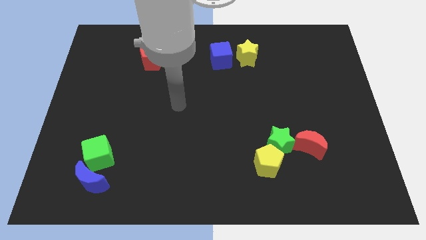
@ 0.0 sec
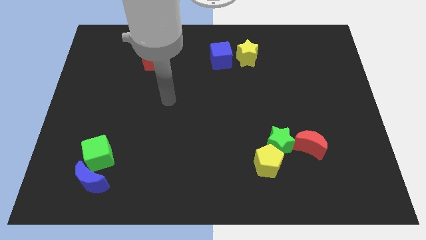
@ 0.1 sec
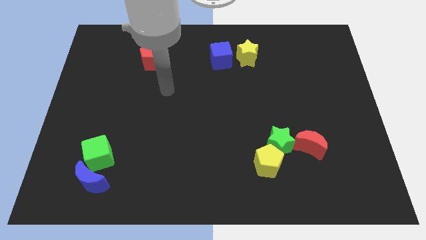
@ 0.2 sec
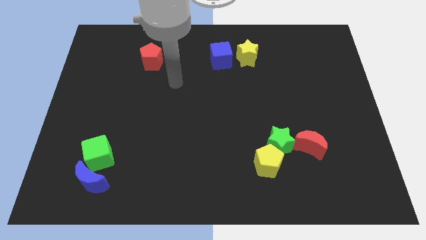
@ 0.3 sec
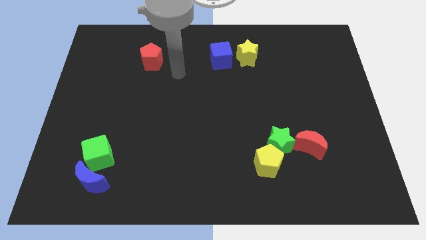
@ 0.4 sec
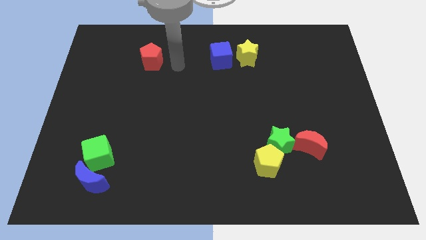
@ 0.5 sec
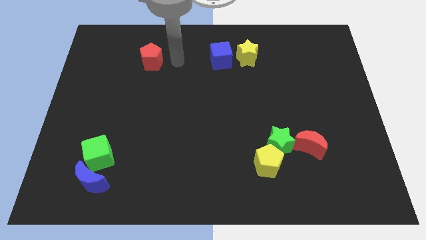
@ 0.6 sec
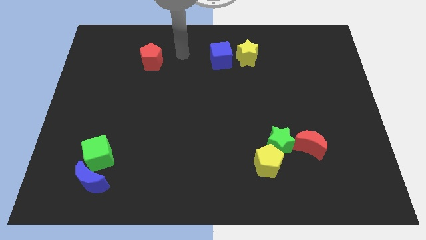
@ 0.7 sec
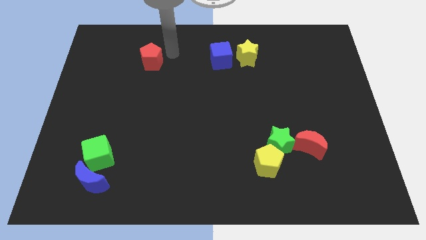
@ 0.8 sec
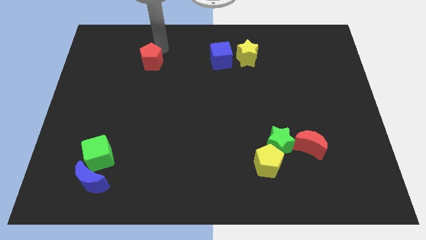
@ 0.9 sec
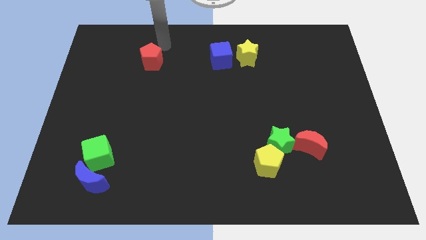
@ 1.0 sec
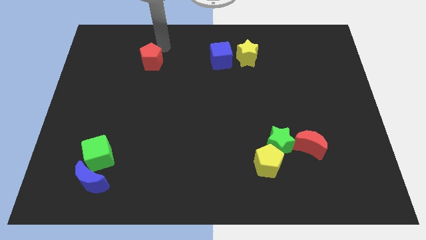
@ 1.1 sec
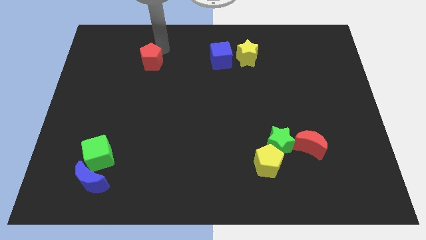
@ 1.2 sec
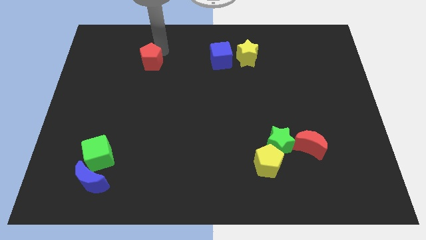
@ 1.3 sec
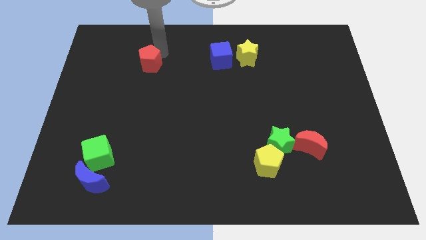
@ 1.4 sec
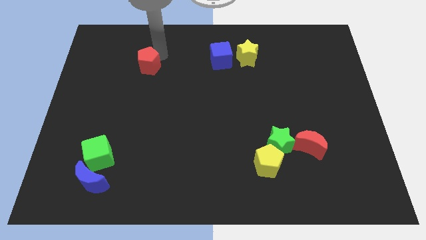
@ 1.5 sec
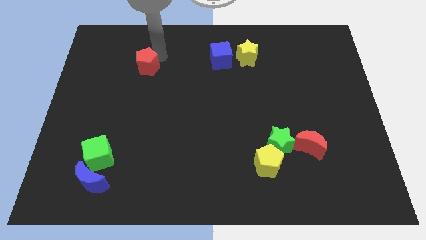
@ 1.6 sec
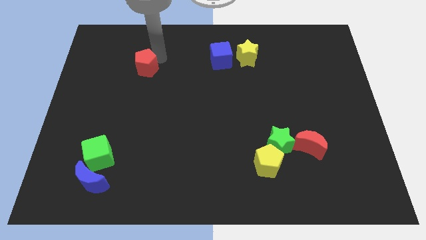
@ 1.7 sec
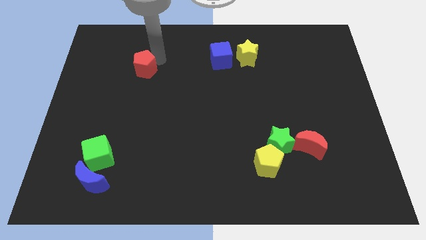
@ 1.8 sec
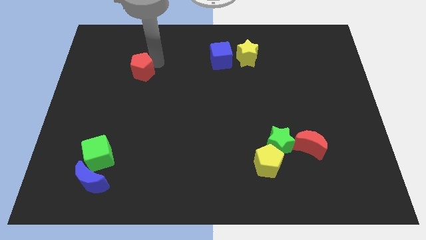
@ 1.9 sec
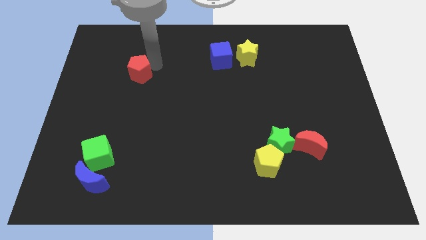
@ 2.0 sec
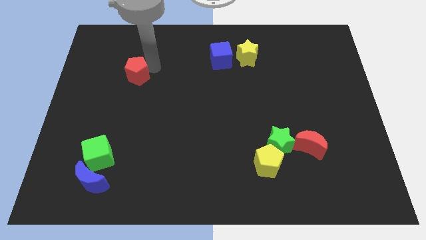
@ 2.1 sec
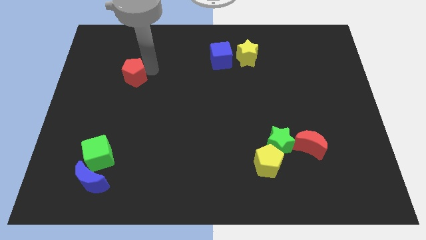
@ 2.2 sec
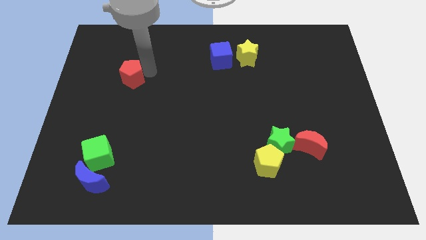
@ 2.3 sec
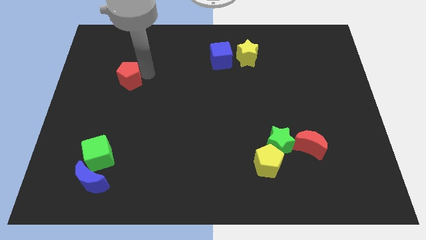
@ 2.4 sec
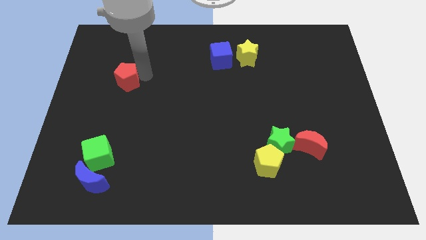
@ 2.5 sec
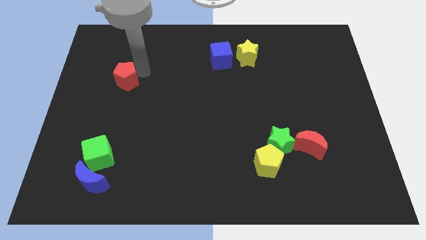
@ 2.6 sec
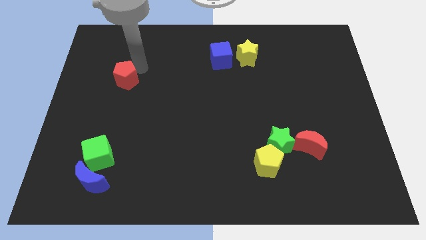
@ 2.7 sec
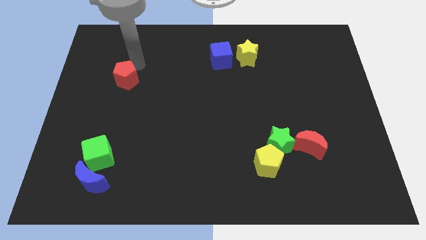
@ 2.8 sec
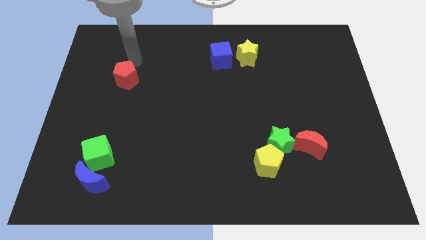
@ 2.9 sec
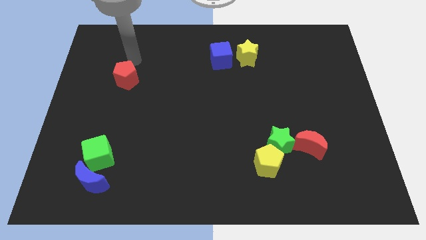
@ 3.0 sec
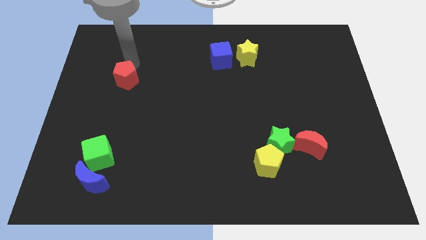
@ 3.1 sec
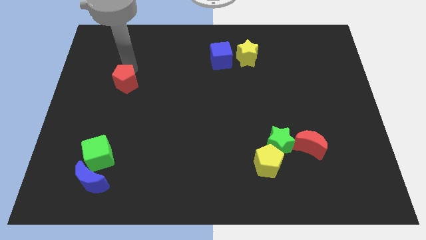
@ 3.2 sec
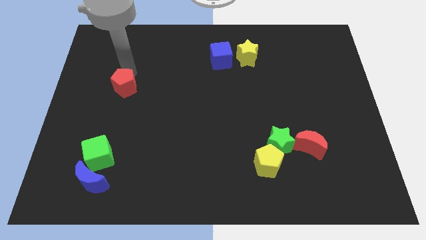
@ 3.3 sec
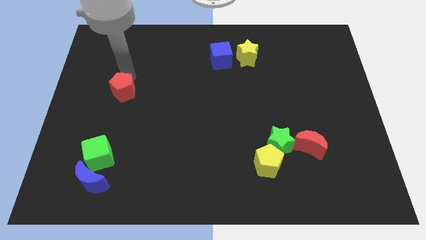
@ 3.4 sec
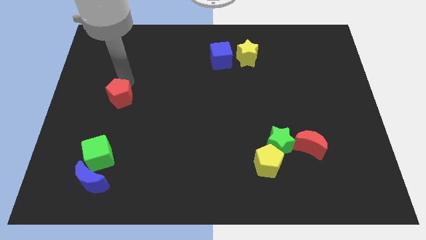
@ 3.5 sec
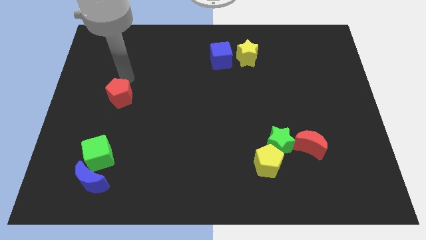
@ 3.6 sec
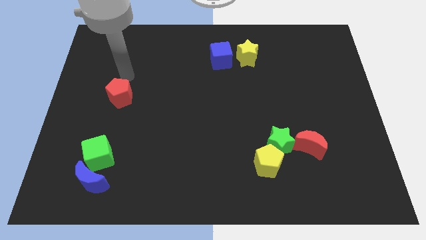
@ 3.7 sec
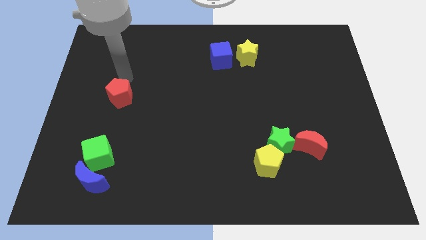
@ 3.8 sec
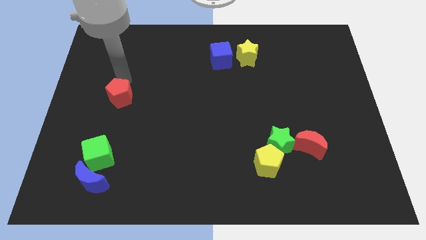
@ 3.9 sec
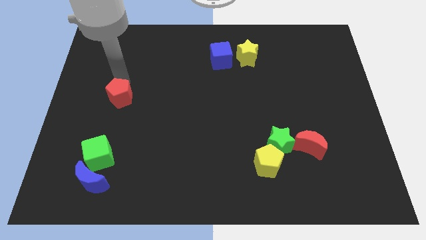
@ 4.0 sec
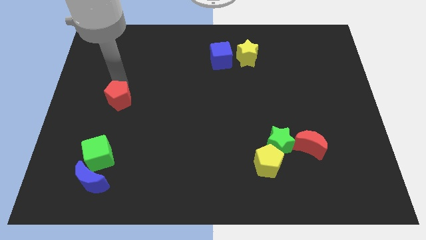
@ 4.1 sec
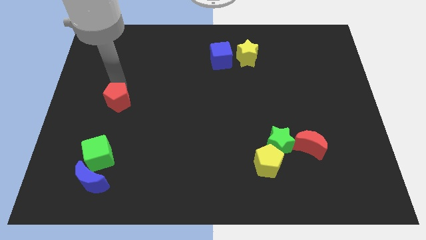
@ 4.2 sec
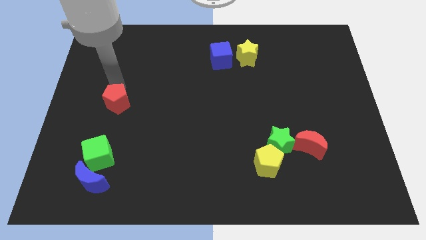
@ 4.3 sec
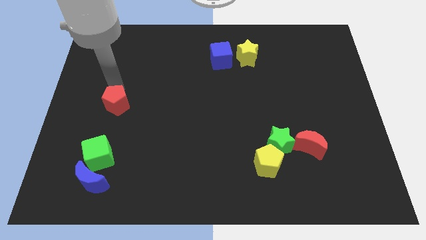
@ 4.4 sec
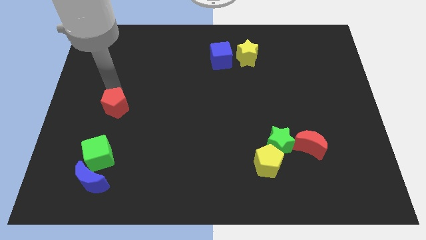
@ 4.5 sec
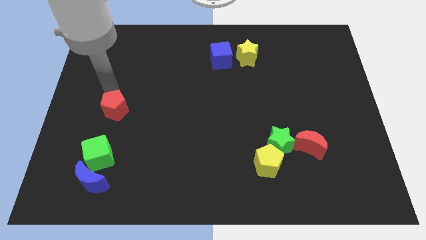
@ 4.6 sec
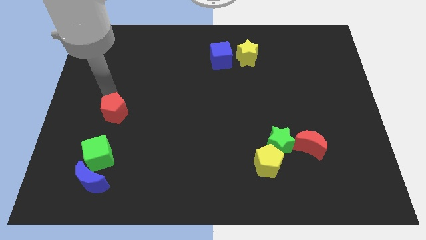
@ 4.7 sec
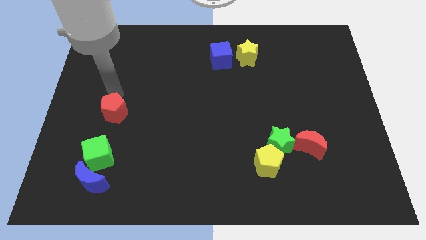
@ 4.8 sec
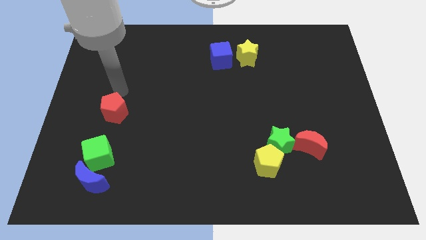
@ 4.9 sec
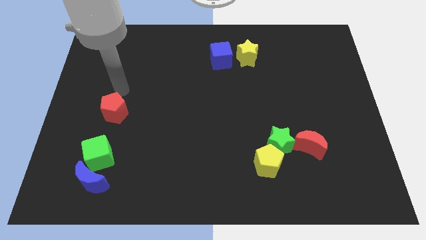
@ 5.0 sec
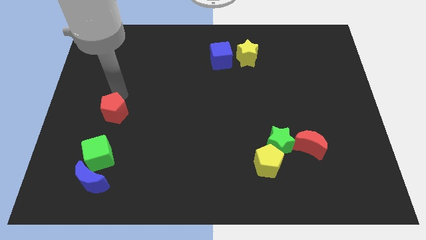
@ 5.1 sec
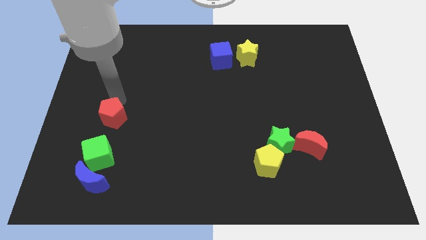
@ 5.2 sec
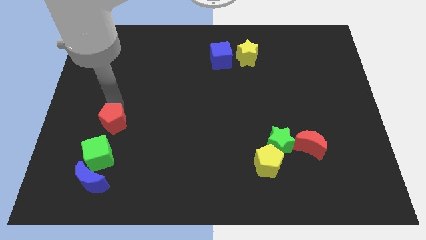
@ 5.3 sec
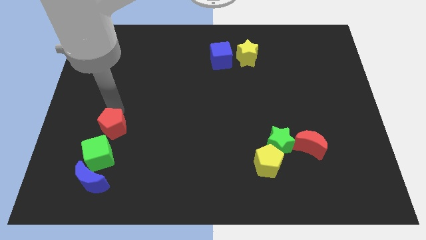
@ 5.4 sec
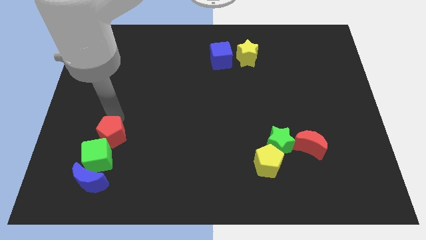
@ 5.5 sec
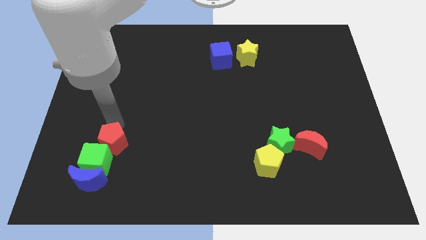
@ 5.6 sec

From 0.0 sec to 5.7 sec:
put the red pentagon towards the green cube

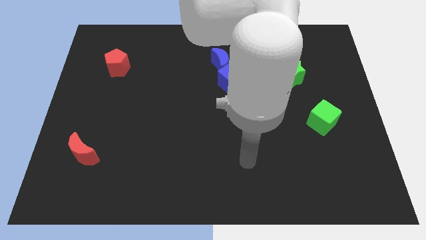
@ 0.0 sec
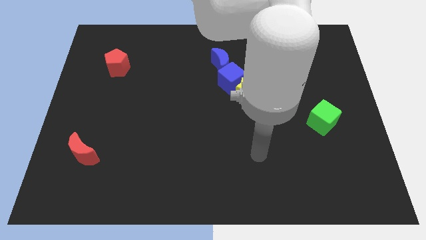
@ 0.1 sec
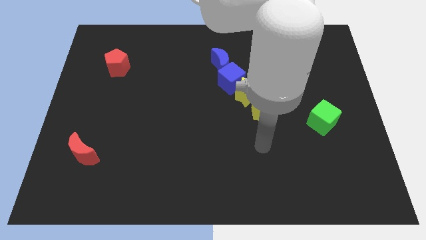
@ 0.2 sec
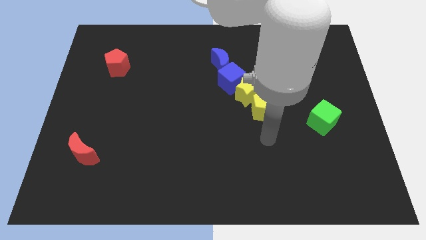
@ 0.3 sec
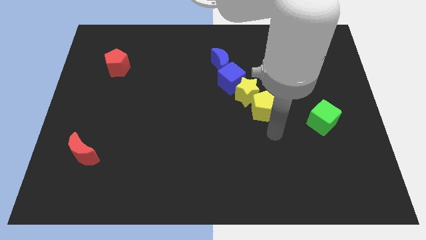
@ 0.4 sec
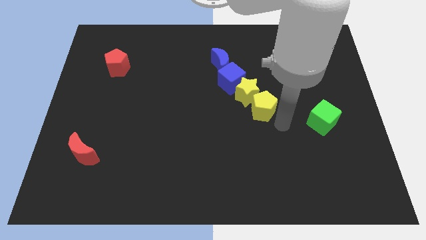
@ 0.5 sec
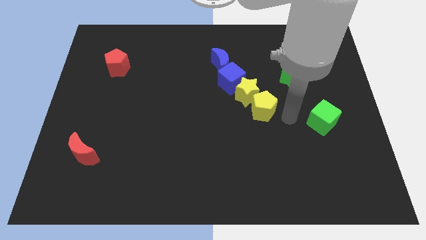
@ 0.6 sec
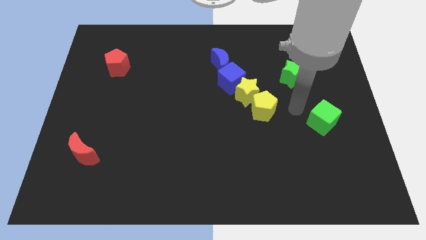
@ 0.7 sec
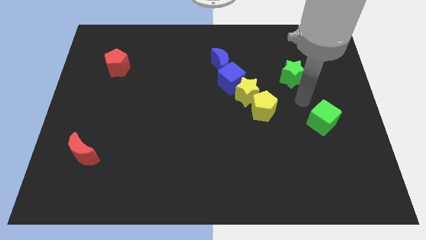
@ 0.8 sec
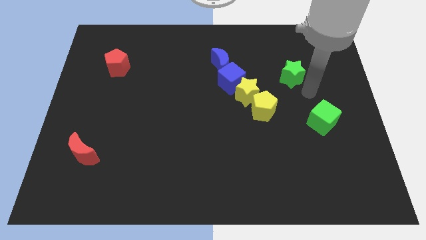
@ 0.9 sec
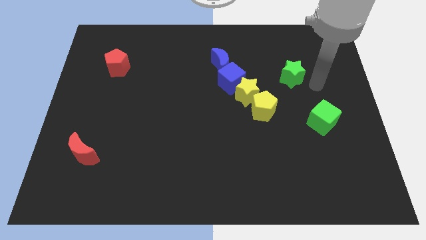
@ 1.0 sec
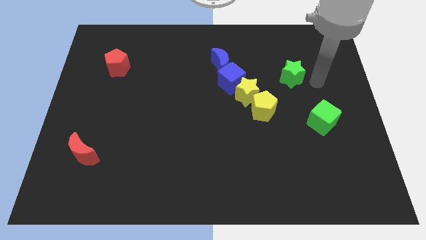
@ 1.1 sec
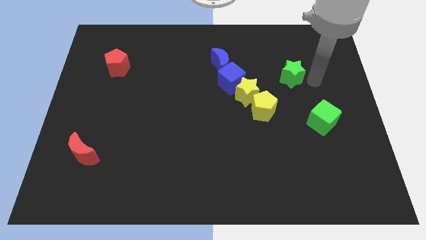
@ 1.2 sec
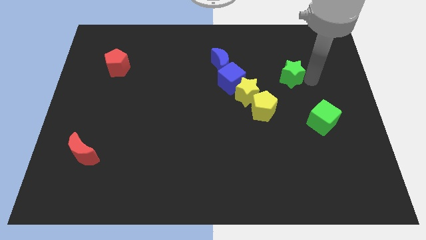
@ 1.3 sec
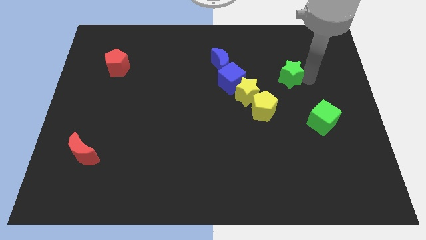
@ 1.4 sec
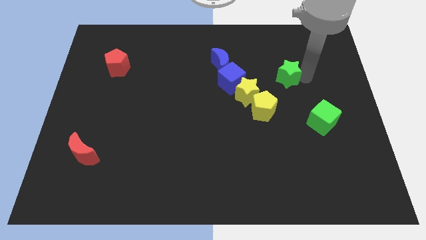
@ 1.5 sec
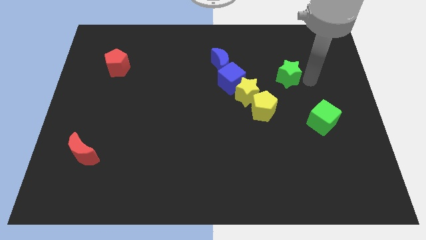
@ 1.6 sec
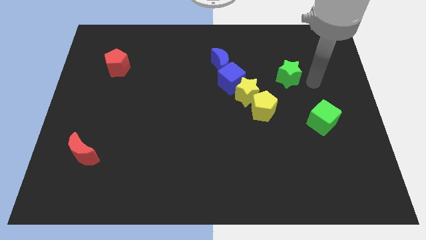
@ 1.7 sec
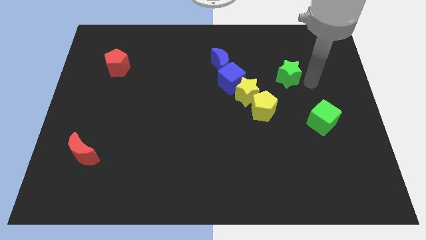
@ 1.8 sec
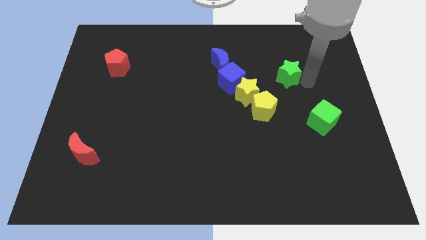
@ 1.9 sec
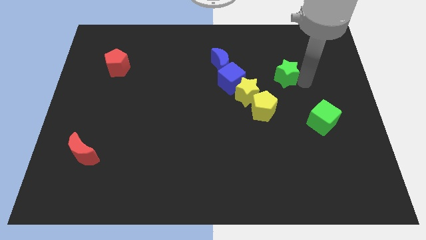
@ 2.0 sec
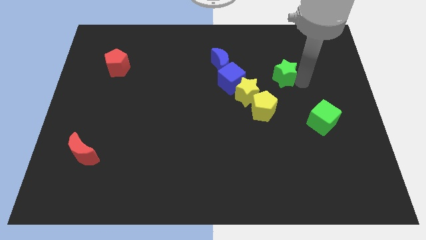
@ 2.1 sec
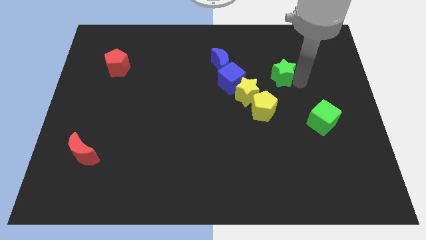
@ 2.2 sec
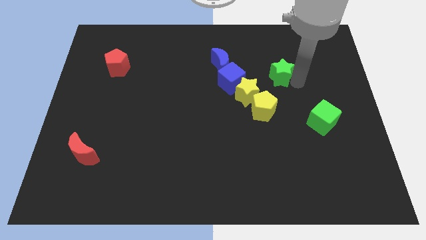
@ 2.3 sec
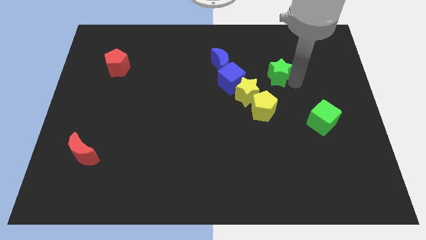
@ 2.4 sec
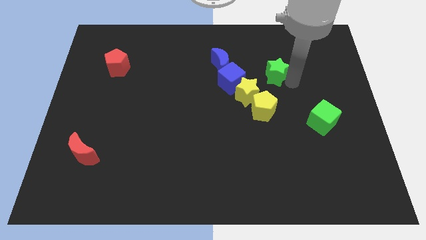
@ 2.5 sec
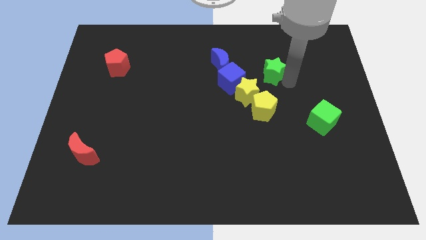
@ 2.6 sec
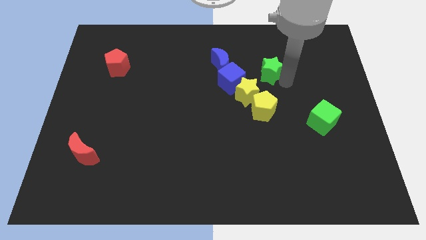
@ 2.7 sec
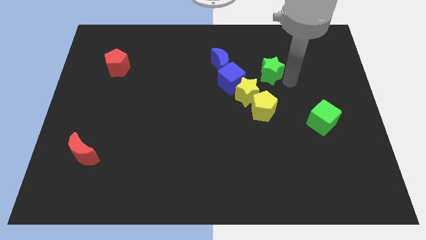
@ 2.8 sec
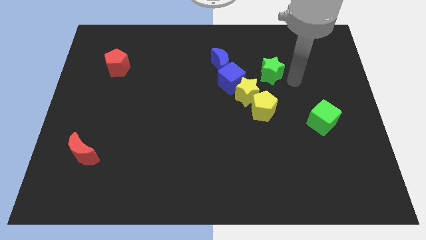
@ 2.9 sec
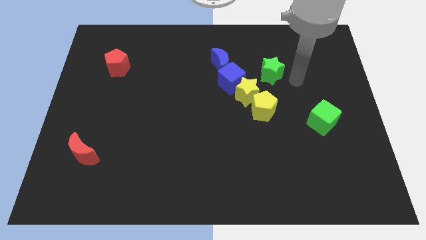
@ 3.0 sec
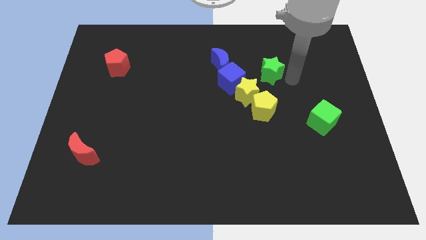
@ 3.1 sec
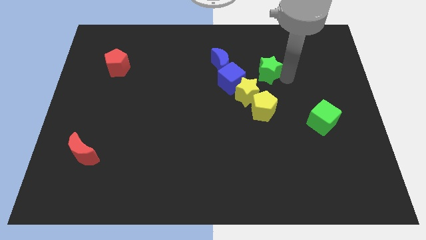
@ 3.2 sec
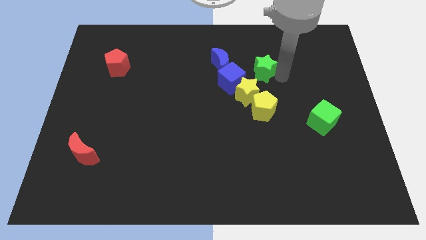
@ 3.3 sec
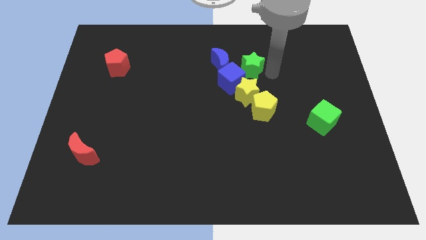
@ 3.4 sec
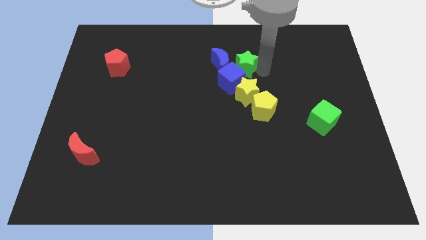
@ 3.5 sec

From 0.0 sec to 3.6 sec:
push the green star close to the blue moon
